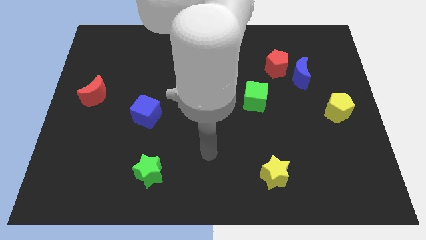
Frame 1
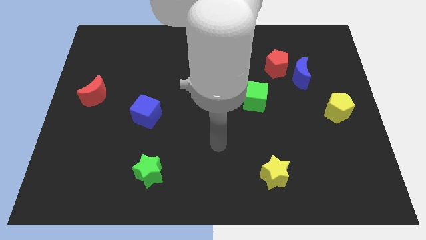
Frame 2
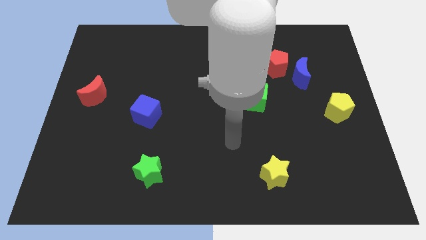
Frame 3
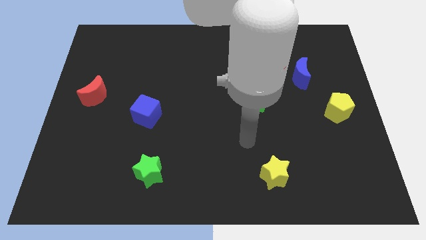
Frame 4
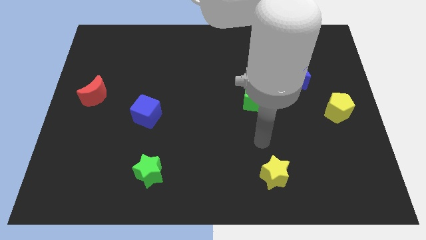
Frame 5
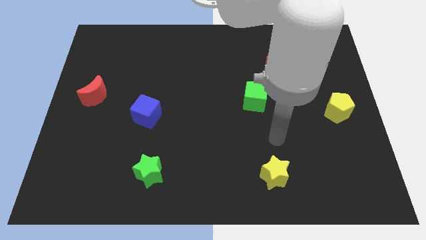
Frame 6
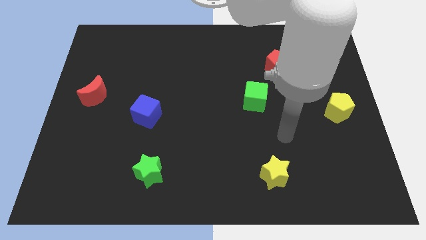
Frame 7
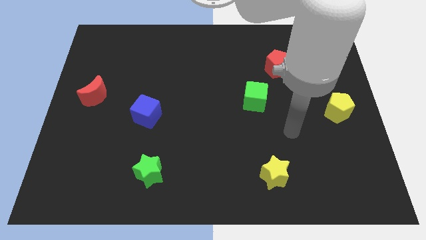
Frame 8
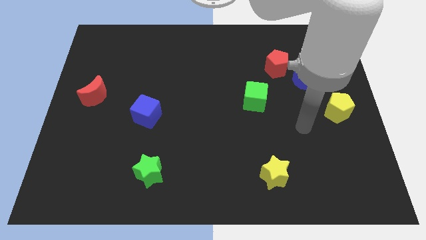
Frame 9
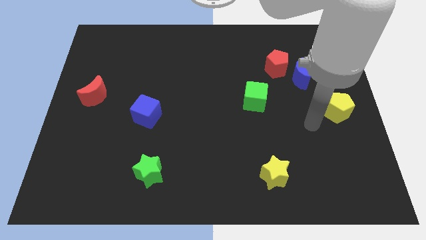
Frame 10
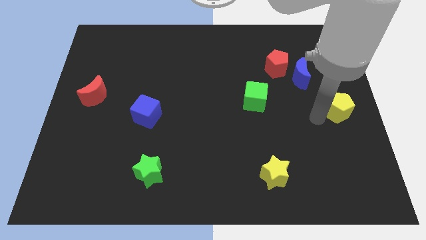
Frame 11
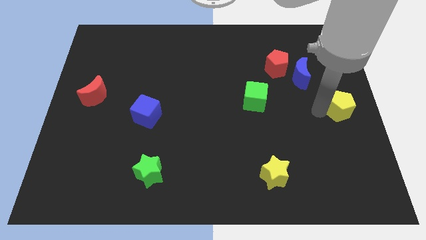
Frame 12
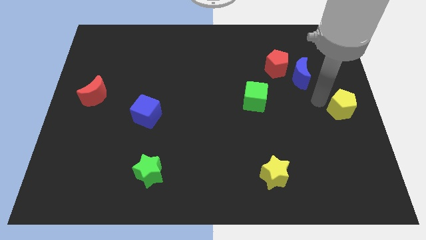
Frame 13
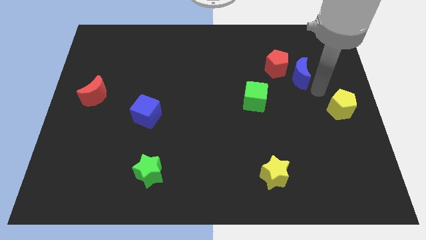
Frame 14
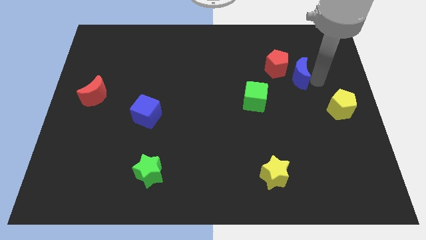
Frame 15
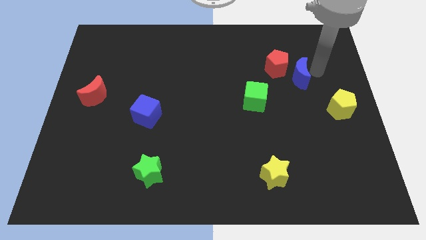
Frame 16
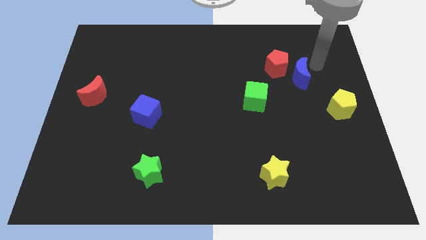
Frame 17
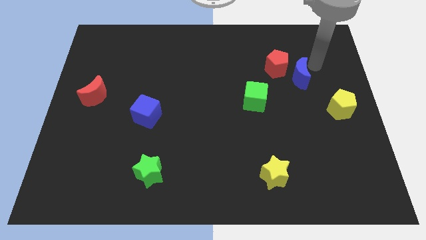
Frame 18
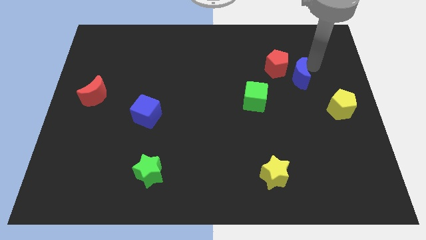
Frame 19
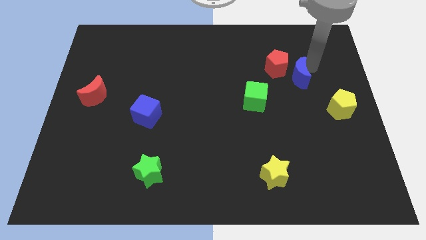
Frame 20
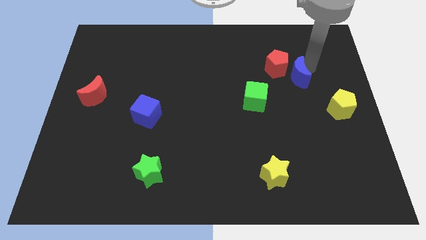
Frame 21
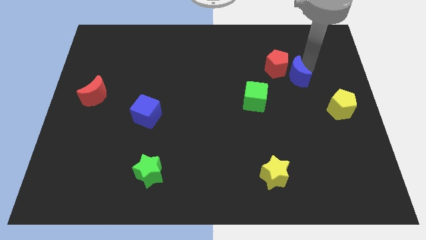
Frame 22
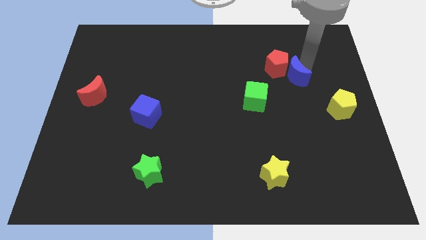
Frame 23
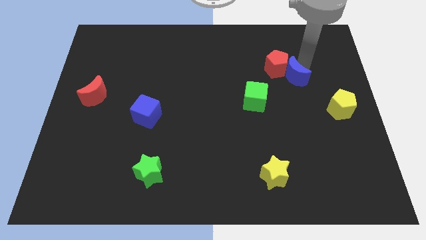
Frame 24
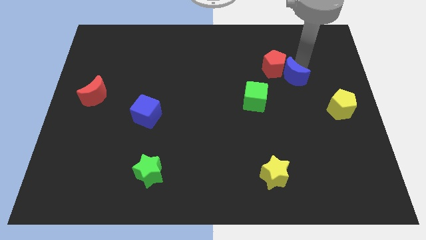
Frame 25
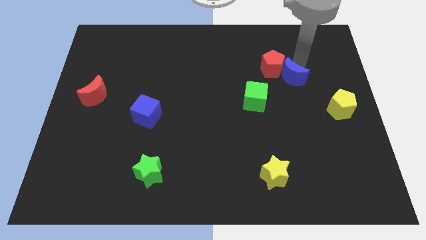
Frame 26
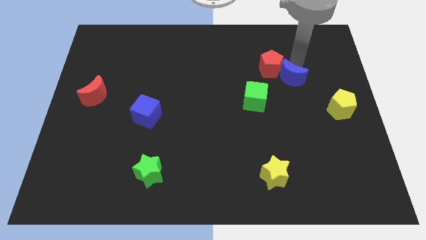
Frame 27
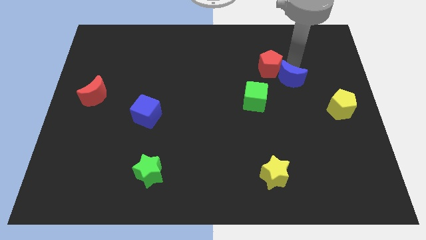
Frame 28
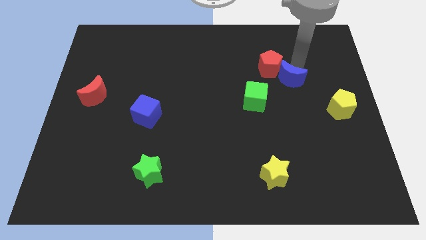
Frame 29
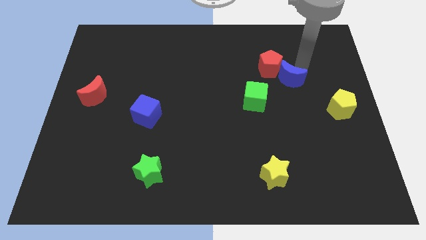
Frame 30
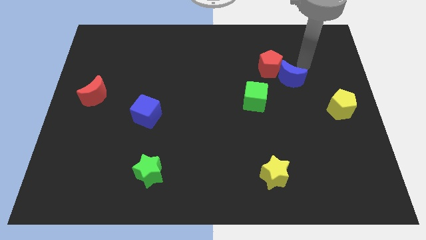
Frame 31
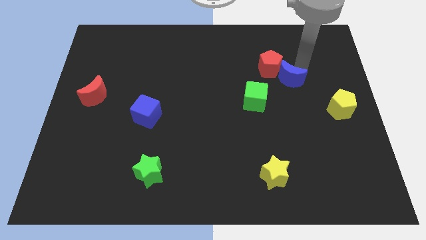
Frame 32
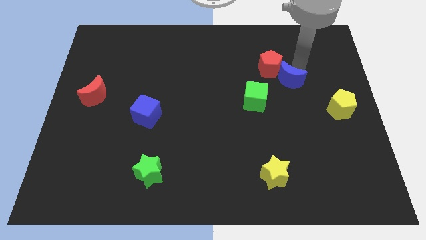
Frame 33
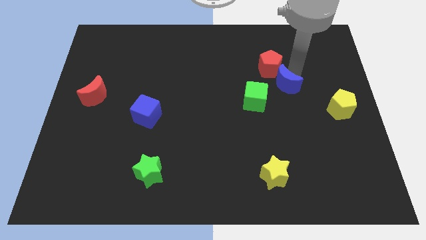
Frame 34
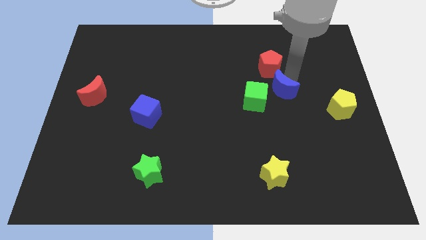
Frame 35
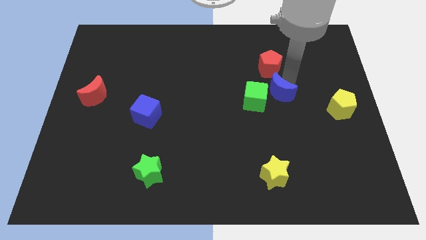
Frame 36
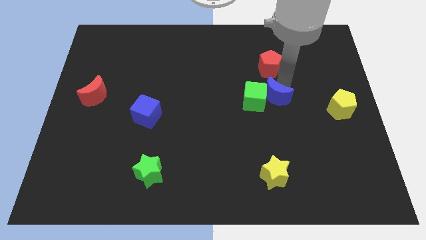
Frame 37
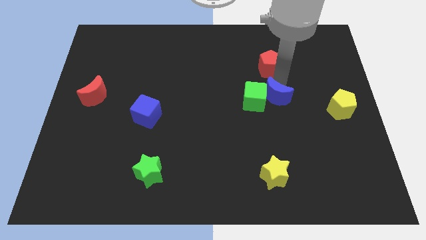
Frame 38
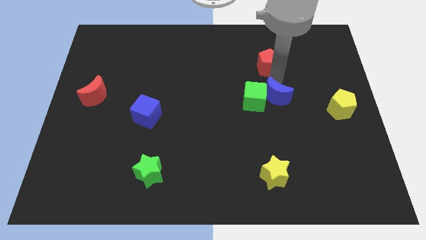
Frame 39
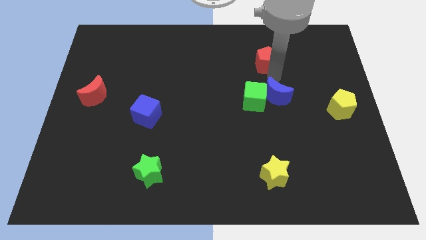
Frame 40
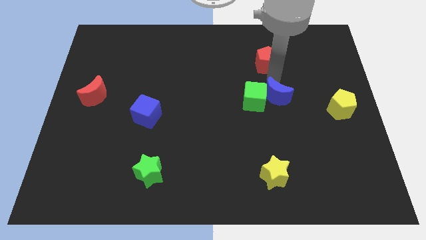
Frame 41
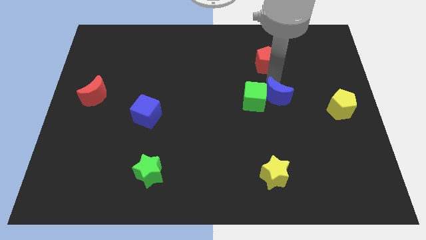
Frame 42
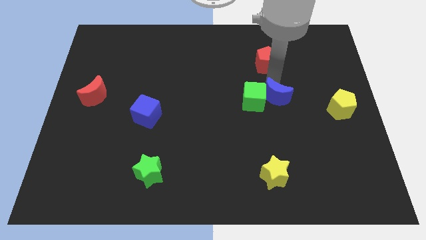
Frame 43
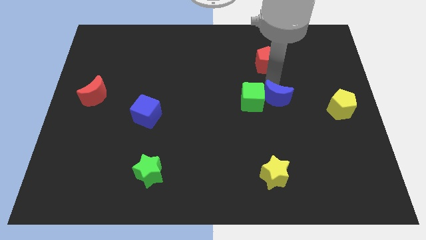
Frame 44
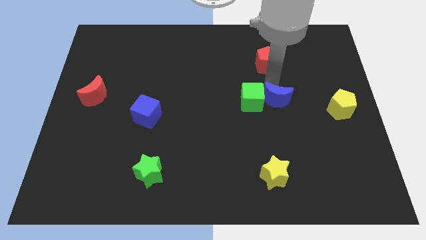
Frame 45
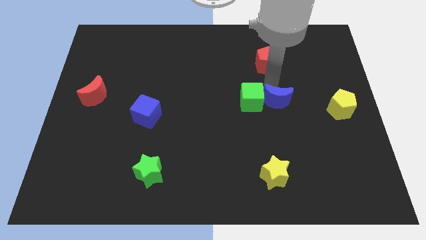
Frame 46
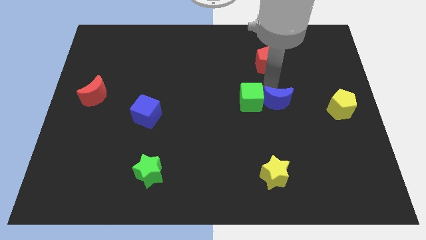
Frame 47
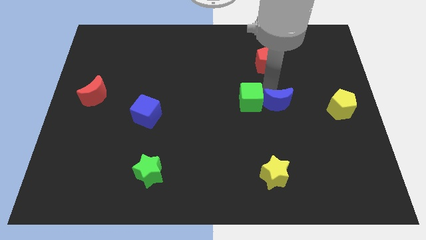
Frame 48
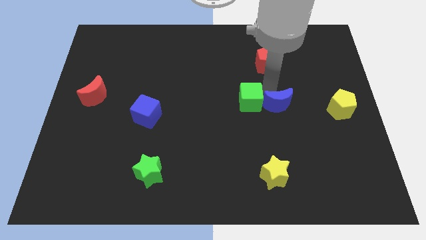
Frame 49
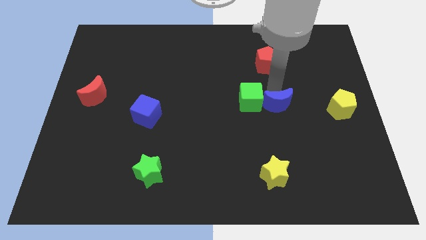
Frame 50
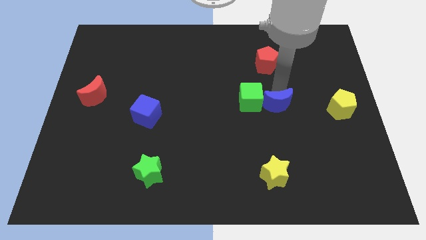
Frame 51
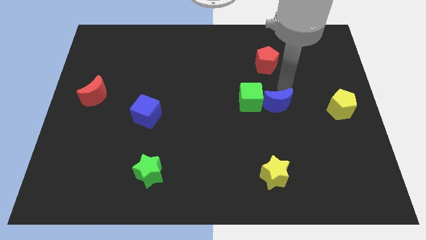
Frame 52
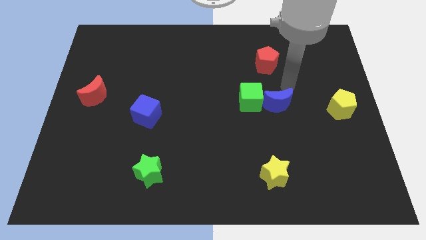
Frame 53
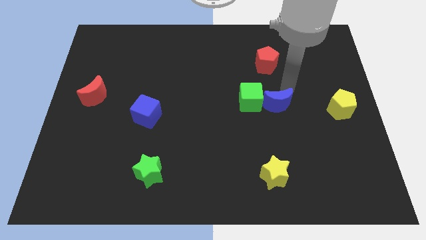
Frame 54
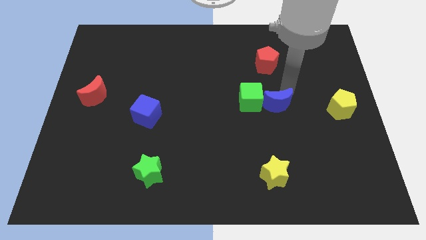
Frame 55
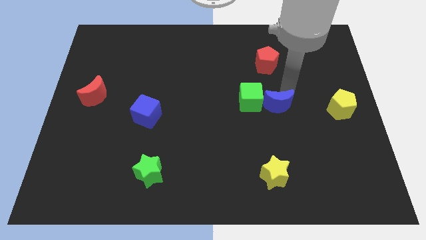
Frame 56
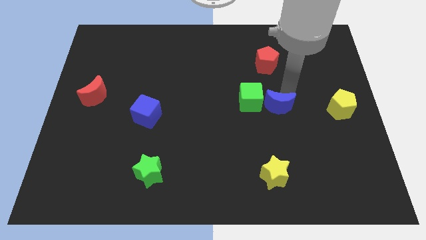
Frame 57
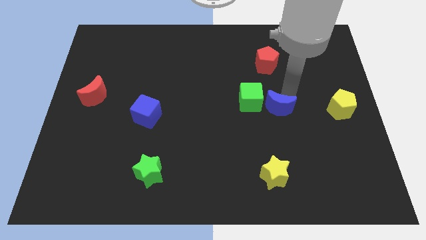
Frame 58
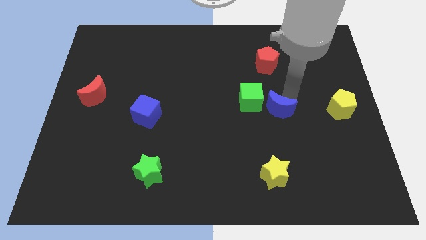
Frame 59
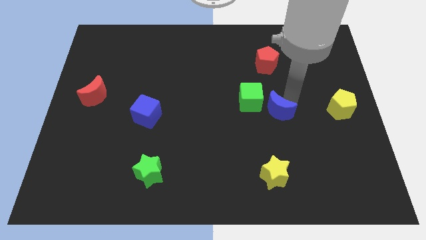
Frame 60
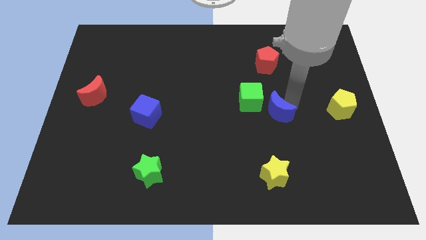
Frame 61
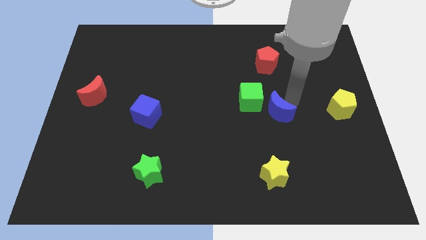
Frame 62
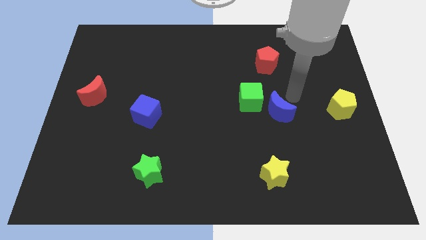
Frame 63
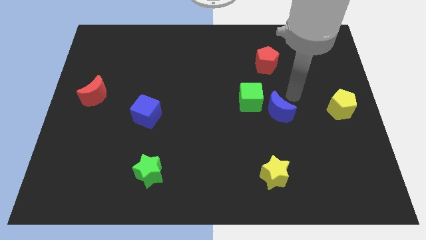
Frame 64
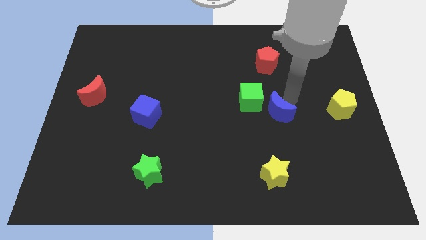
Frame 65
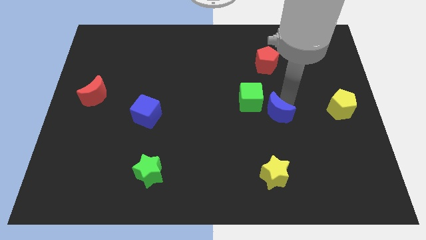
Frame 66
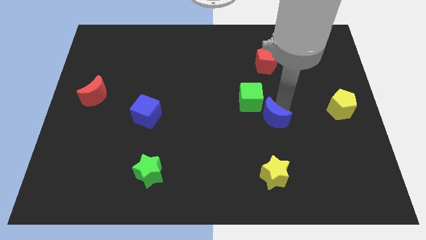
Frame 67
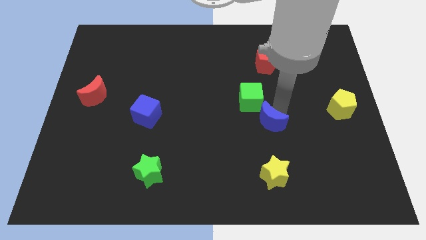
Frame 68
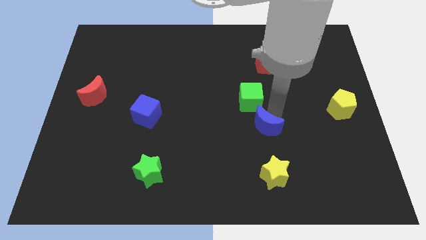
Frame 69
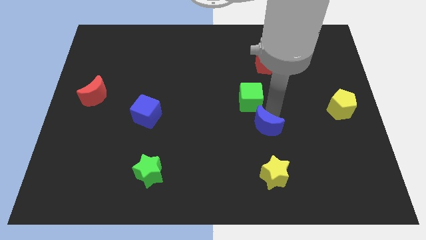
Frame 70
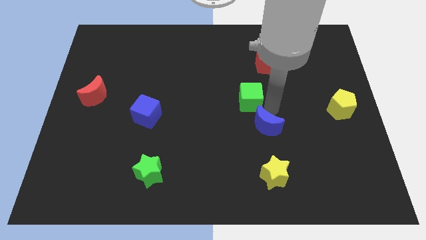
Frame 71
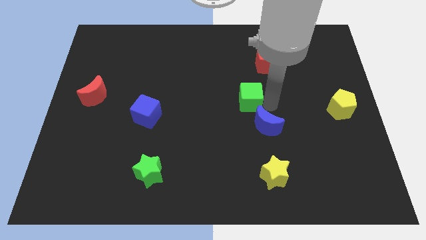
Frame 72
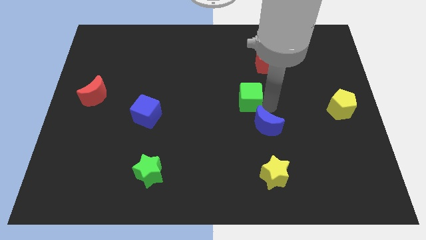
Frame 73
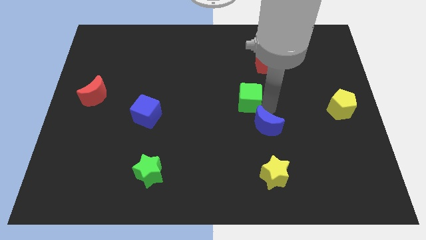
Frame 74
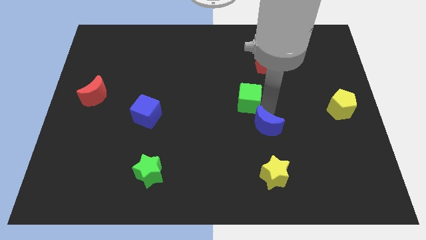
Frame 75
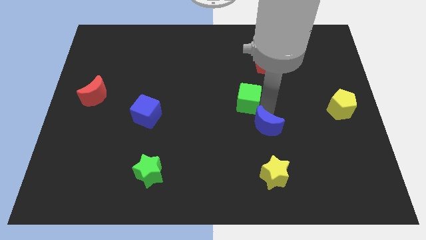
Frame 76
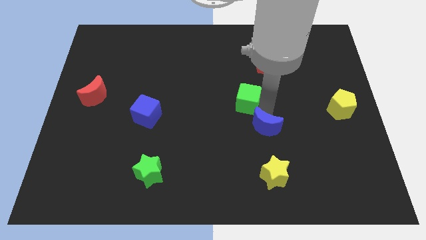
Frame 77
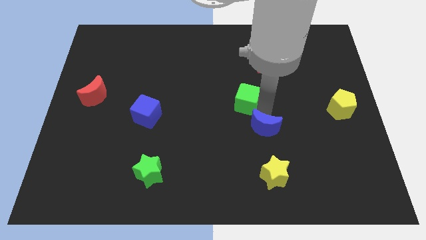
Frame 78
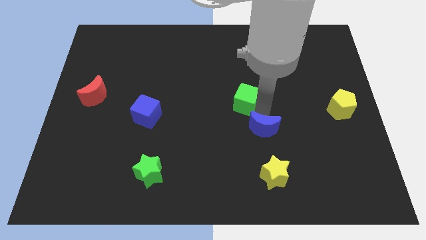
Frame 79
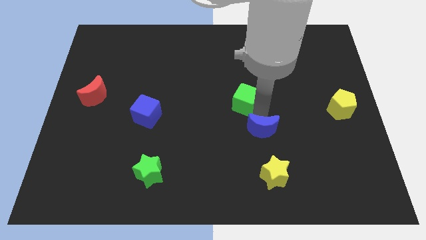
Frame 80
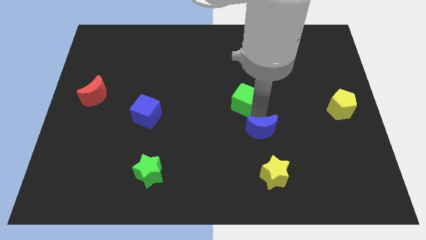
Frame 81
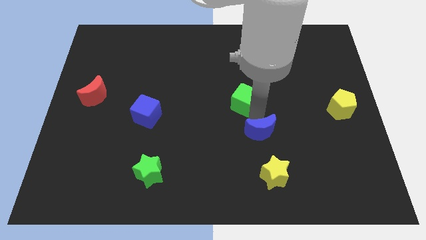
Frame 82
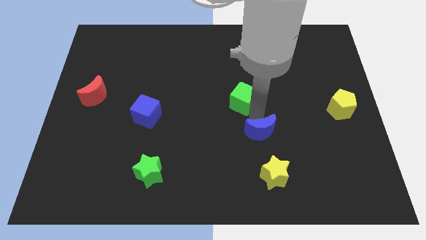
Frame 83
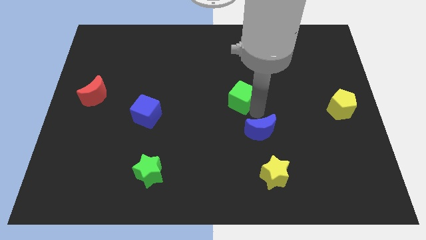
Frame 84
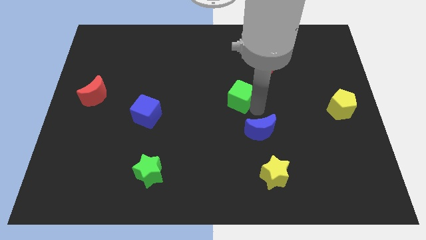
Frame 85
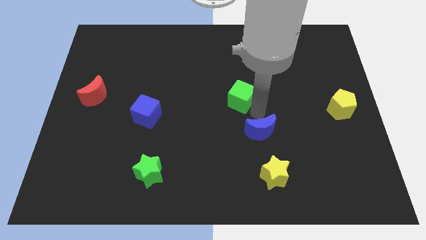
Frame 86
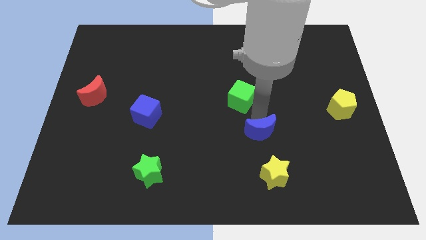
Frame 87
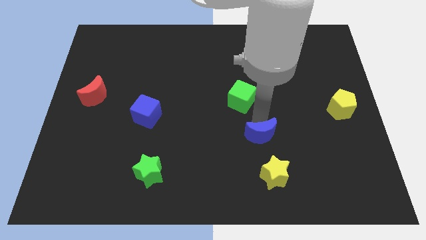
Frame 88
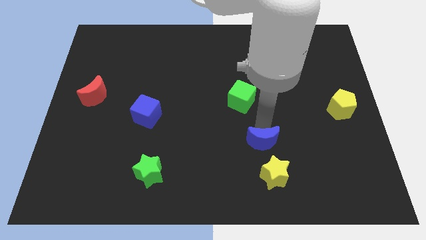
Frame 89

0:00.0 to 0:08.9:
move the blue moon to the top left of the yellow star
